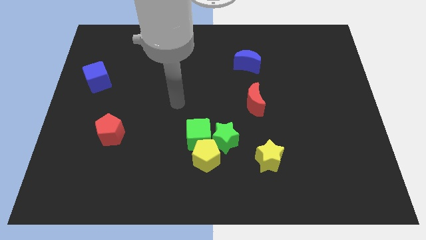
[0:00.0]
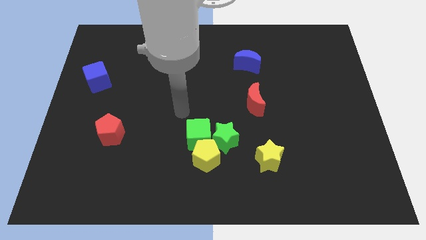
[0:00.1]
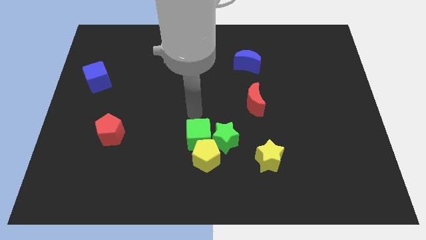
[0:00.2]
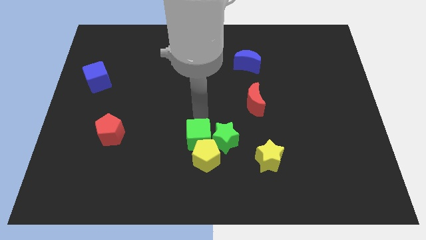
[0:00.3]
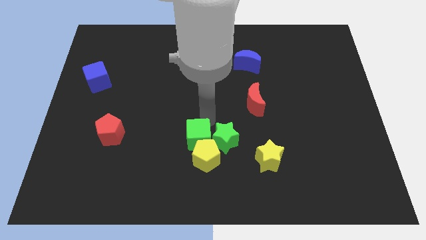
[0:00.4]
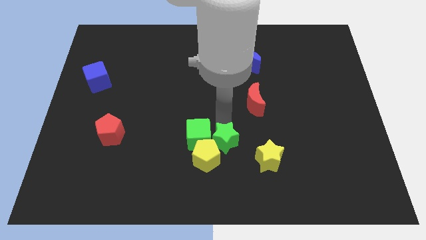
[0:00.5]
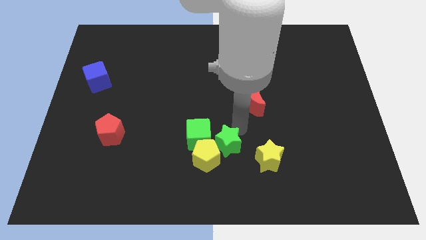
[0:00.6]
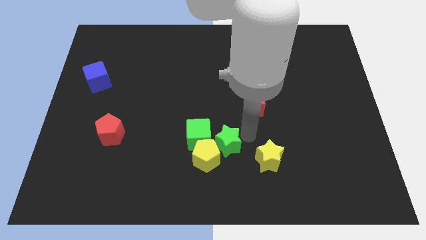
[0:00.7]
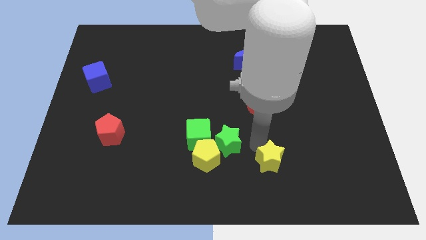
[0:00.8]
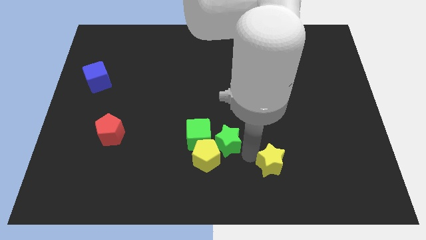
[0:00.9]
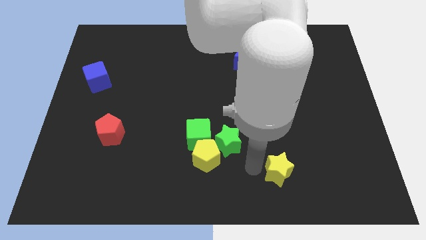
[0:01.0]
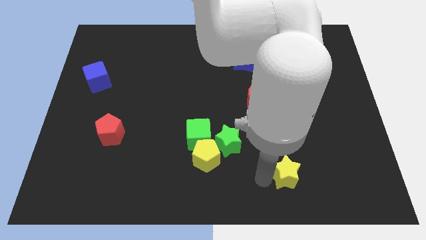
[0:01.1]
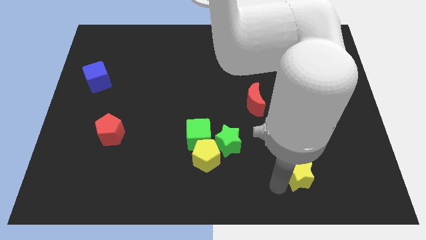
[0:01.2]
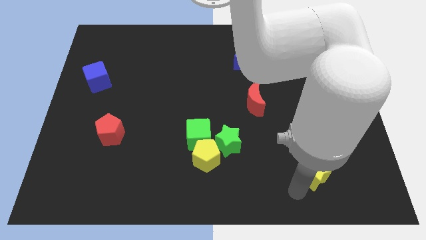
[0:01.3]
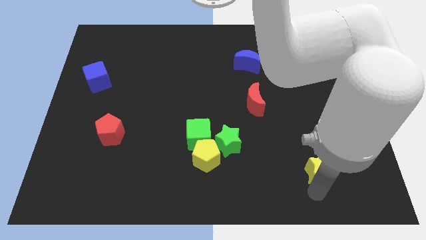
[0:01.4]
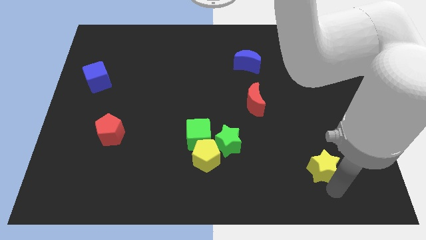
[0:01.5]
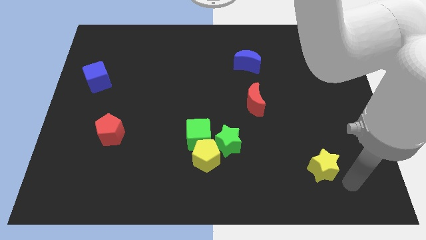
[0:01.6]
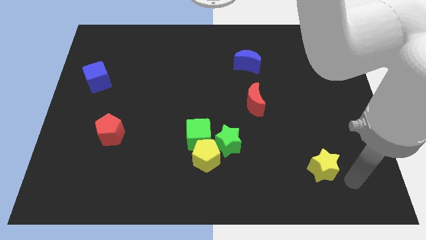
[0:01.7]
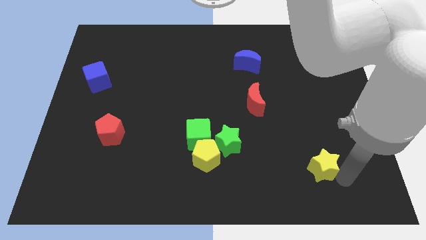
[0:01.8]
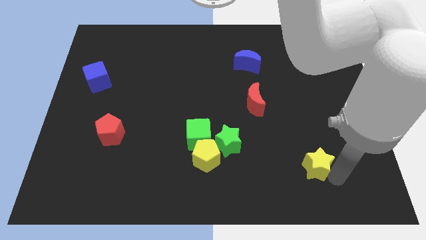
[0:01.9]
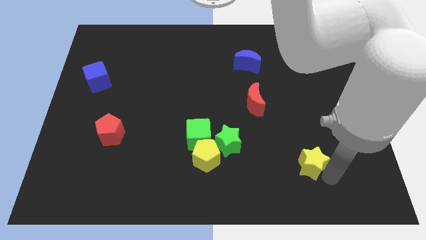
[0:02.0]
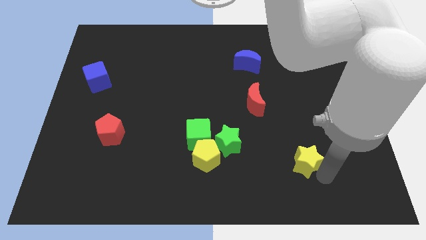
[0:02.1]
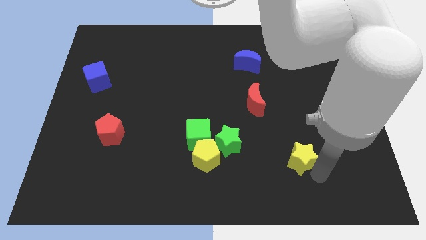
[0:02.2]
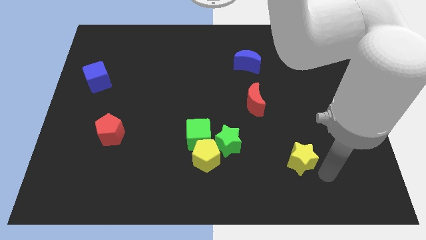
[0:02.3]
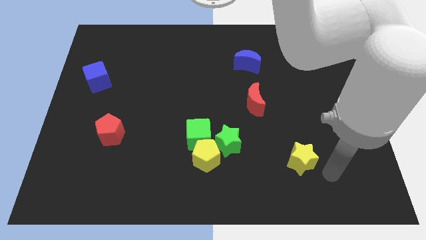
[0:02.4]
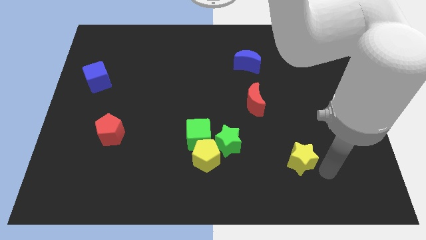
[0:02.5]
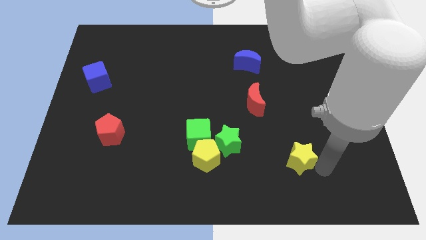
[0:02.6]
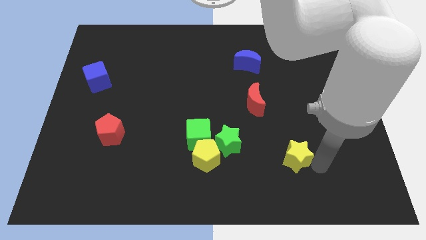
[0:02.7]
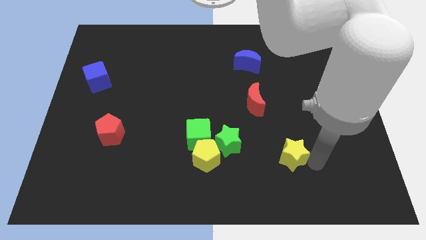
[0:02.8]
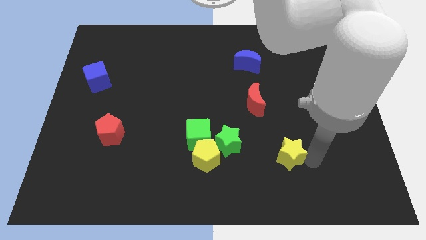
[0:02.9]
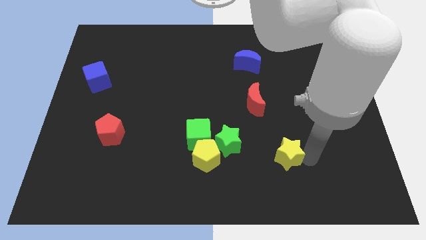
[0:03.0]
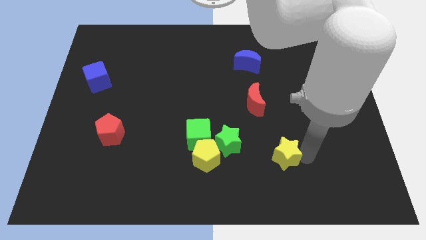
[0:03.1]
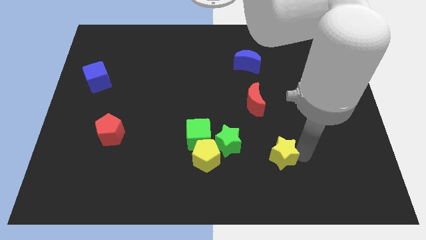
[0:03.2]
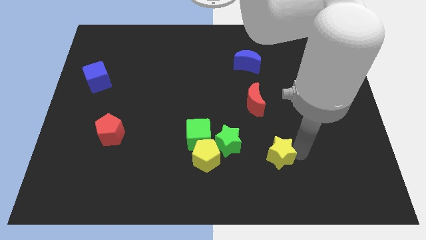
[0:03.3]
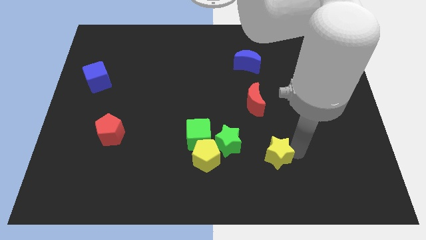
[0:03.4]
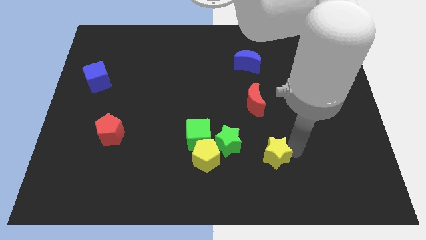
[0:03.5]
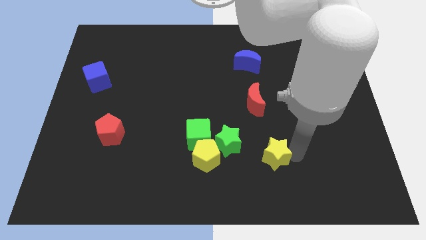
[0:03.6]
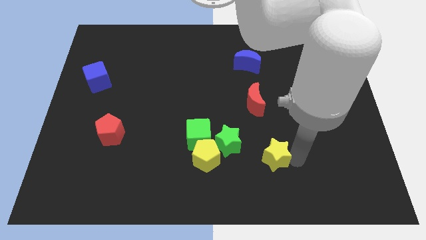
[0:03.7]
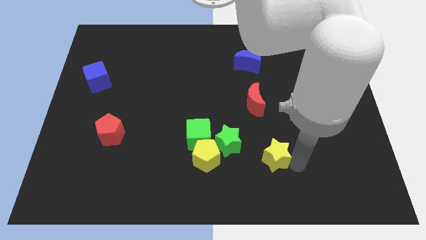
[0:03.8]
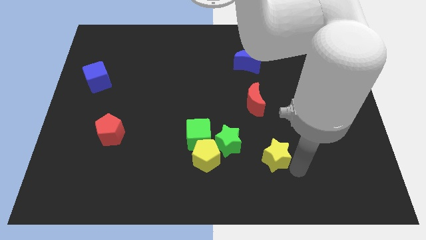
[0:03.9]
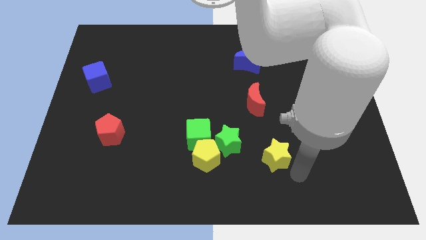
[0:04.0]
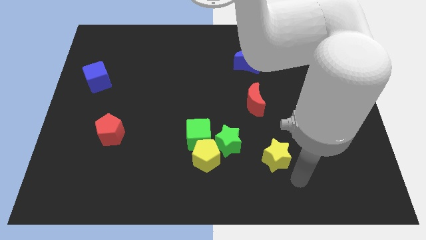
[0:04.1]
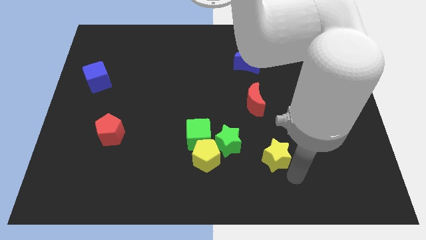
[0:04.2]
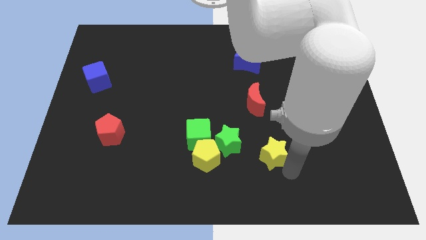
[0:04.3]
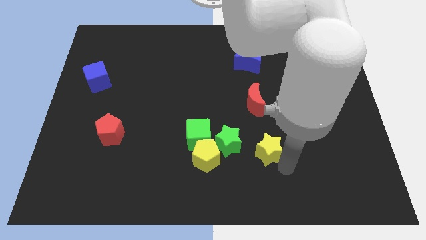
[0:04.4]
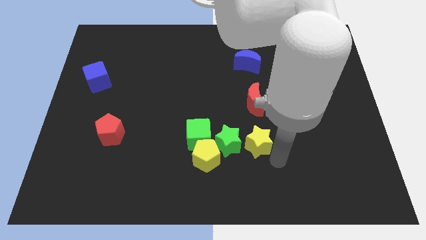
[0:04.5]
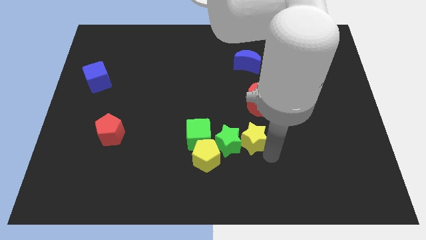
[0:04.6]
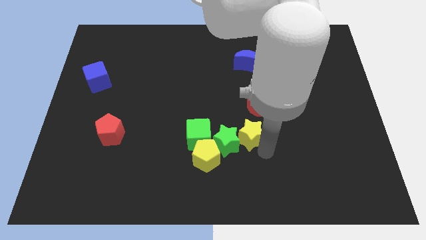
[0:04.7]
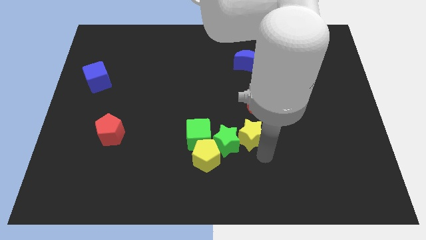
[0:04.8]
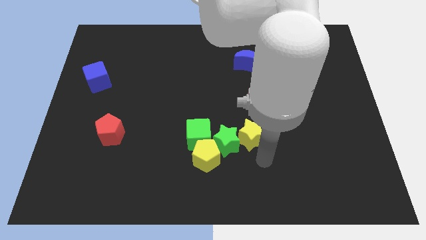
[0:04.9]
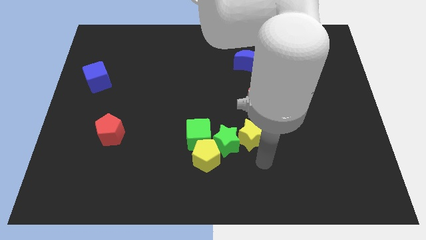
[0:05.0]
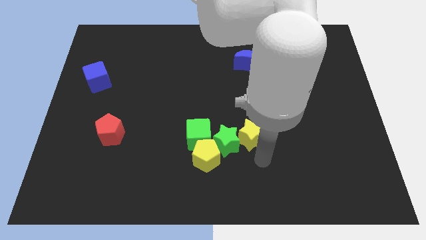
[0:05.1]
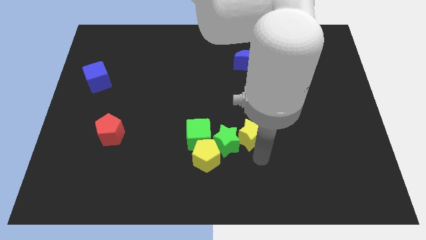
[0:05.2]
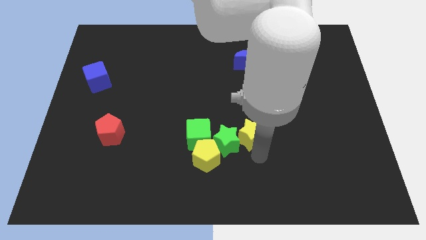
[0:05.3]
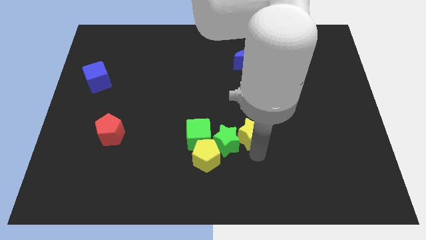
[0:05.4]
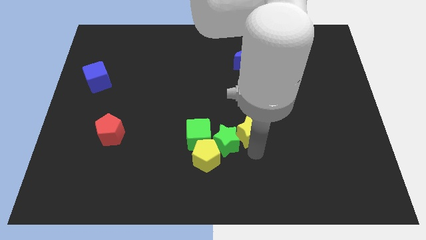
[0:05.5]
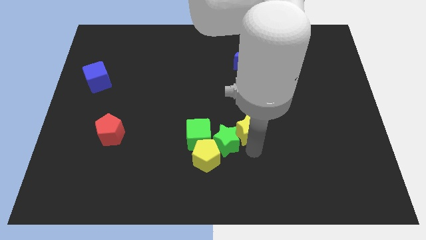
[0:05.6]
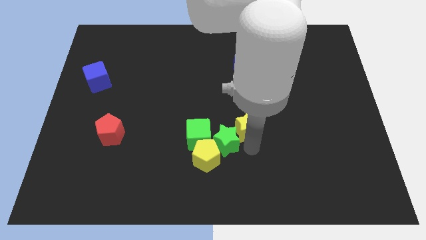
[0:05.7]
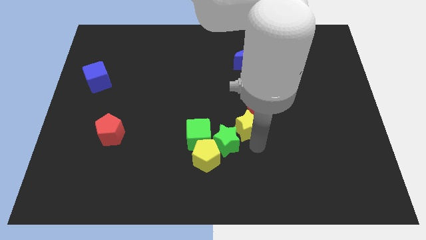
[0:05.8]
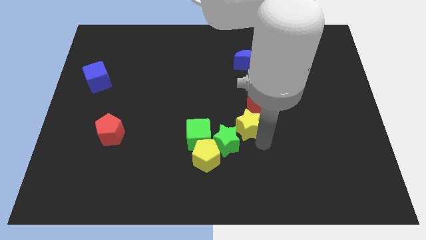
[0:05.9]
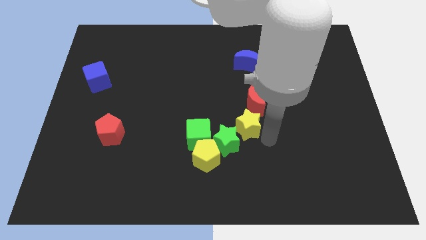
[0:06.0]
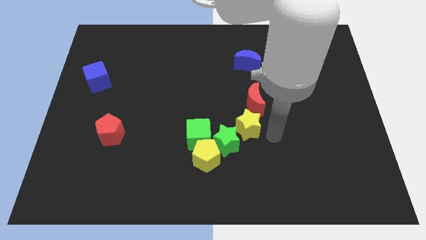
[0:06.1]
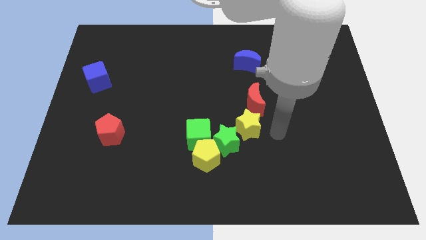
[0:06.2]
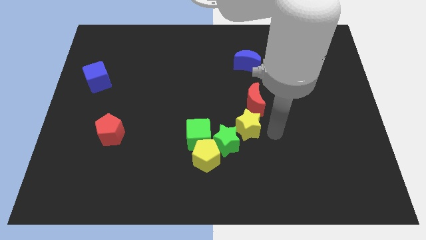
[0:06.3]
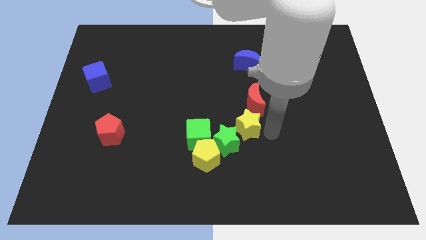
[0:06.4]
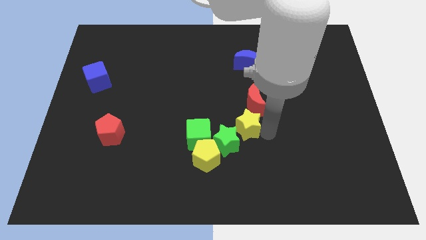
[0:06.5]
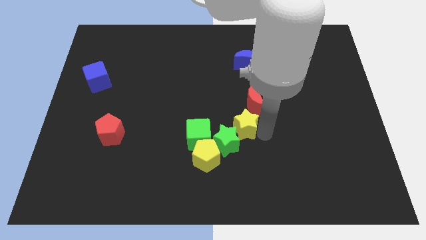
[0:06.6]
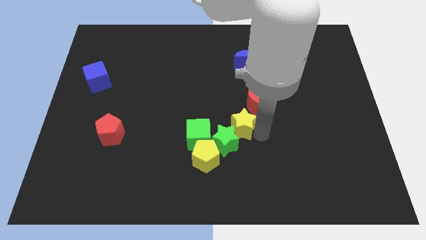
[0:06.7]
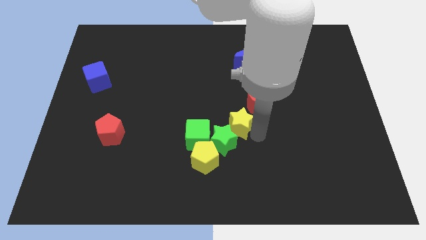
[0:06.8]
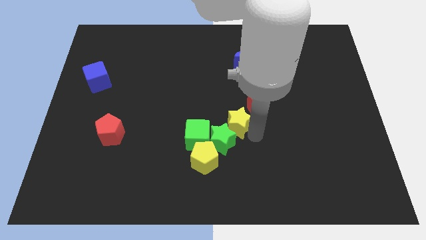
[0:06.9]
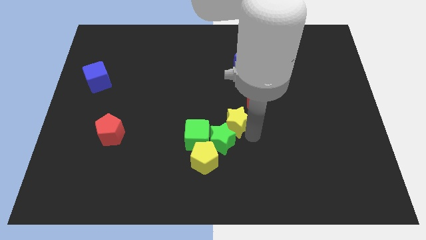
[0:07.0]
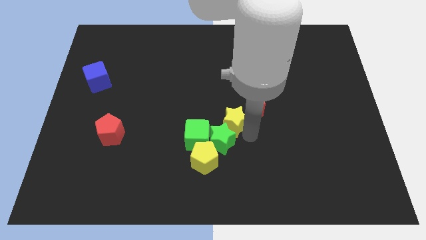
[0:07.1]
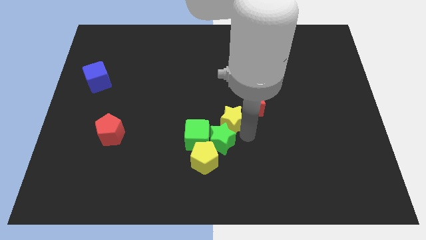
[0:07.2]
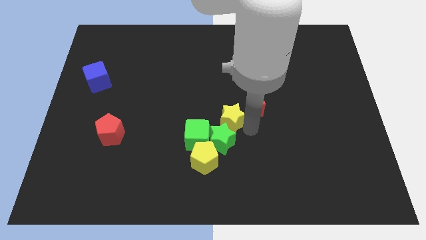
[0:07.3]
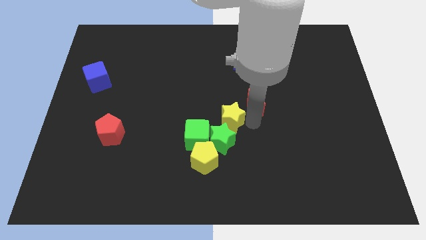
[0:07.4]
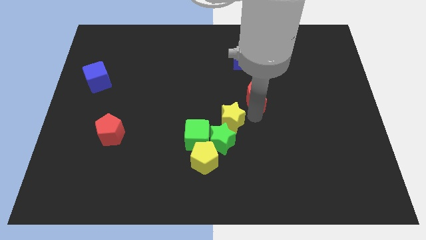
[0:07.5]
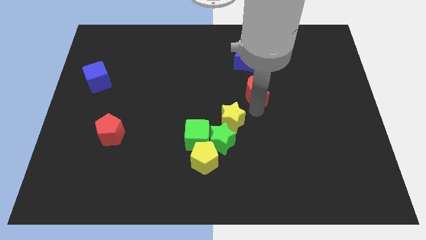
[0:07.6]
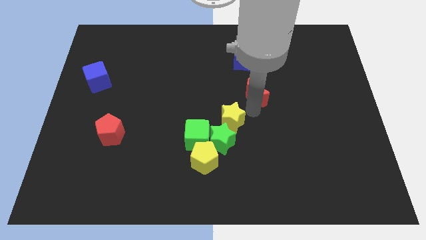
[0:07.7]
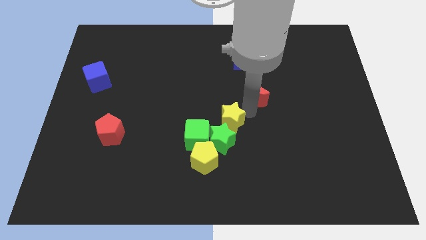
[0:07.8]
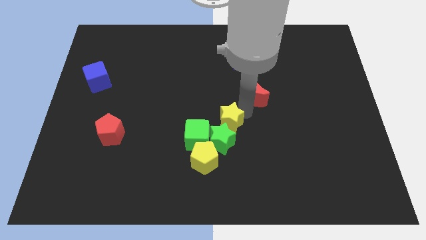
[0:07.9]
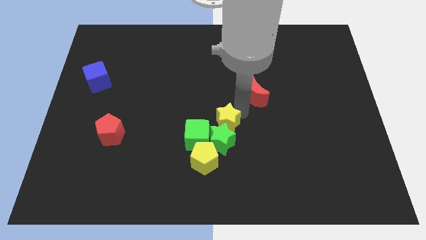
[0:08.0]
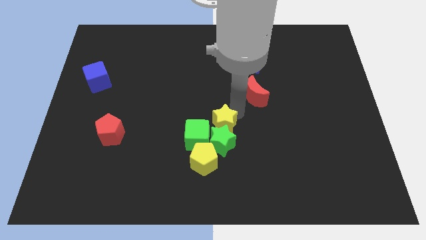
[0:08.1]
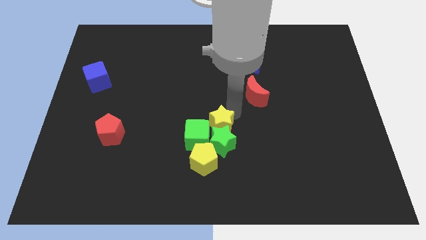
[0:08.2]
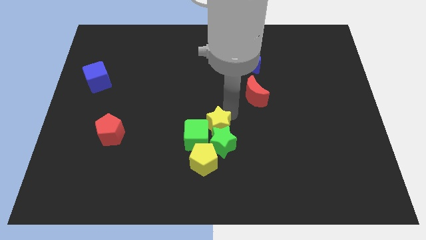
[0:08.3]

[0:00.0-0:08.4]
slide the yellow star towards the green cube
